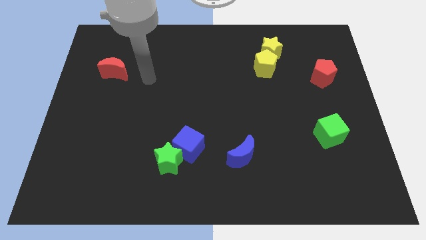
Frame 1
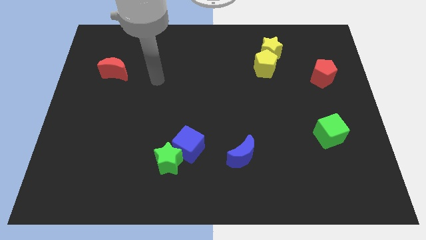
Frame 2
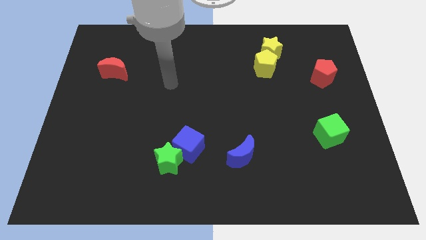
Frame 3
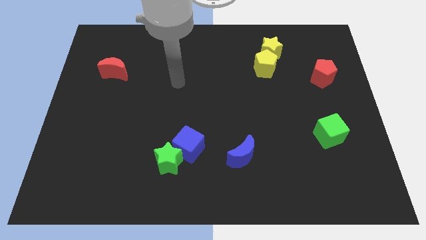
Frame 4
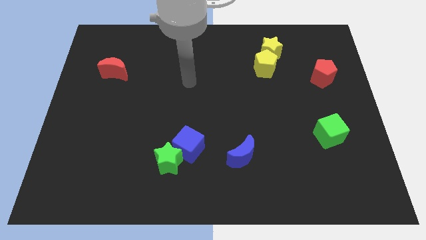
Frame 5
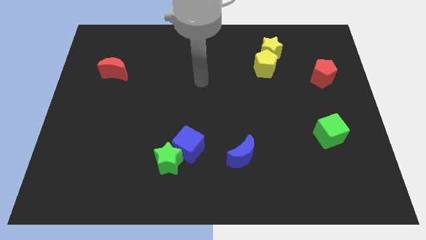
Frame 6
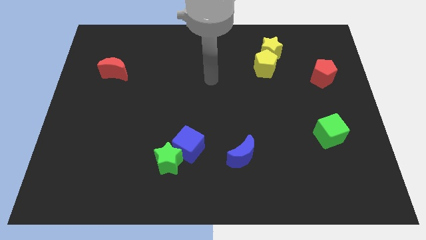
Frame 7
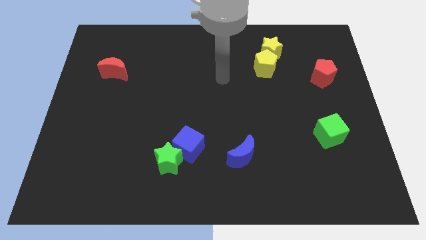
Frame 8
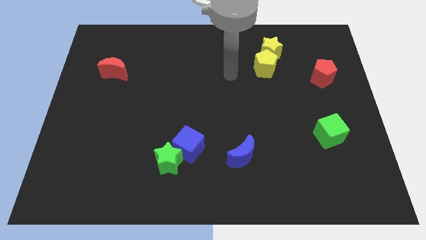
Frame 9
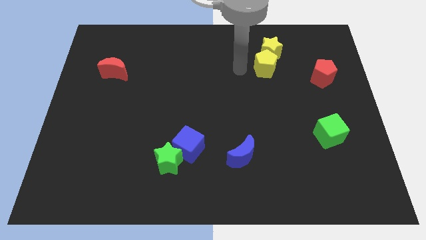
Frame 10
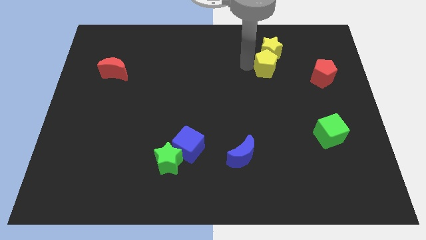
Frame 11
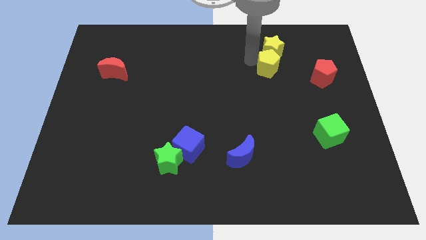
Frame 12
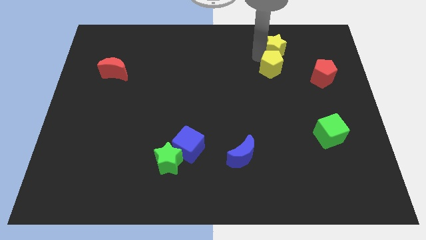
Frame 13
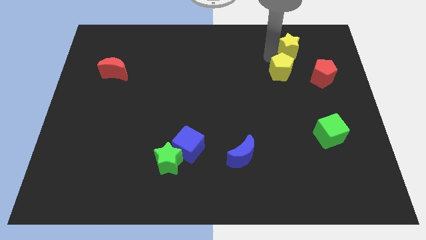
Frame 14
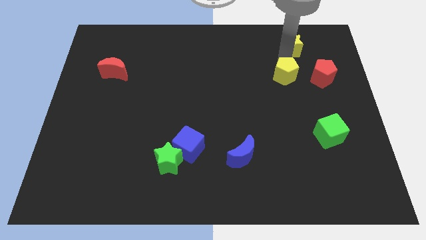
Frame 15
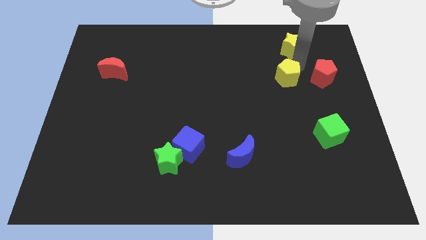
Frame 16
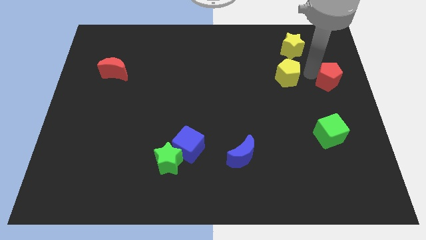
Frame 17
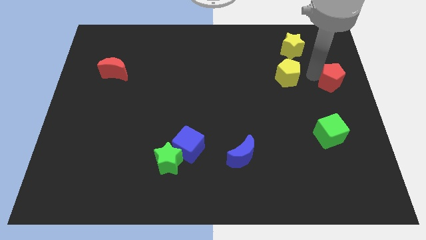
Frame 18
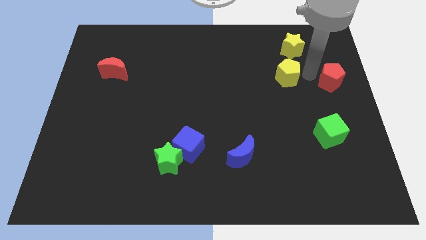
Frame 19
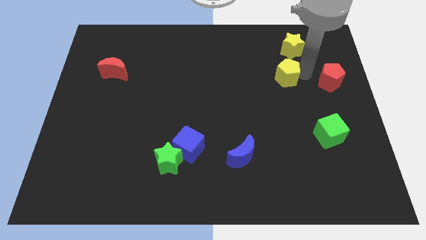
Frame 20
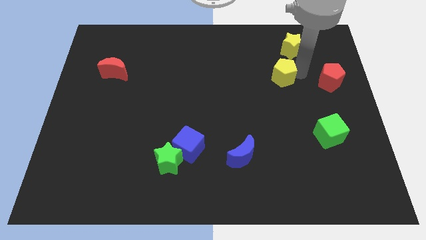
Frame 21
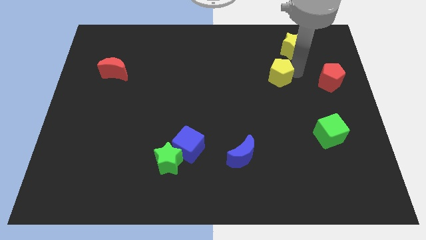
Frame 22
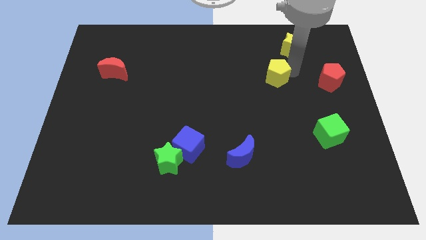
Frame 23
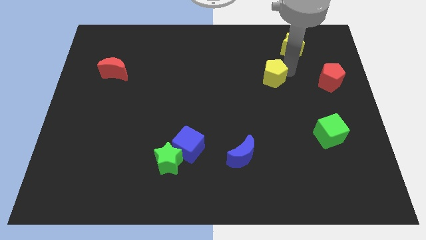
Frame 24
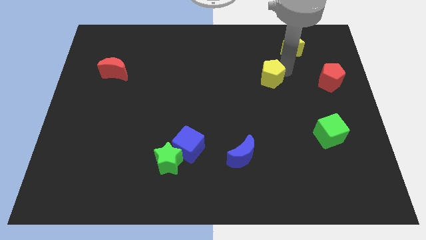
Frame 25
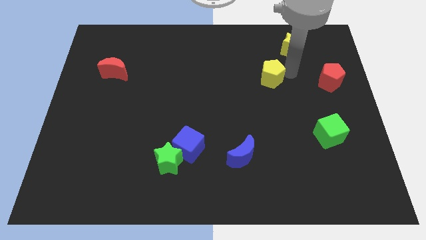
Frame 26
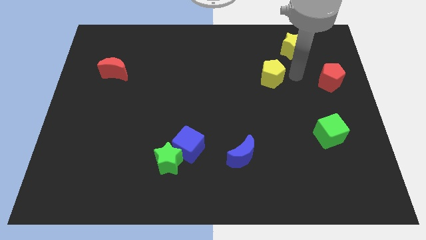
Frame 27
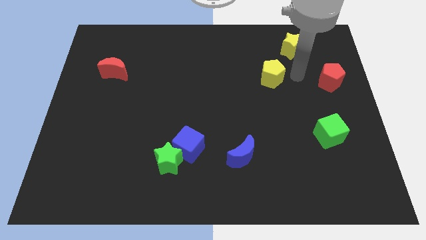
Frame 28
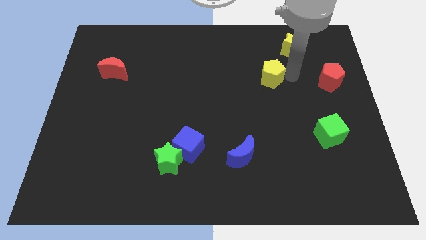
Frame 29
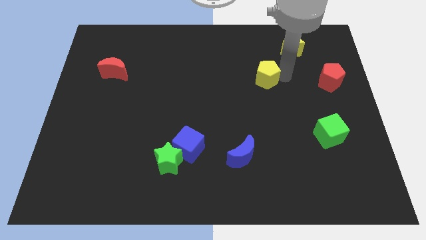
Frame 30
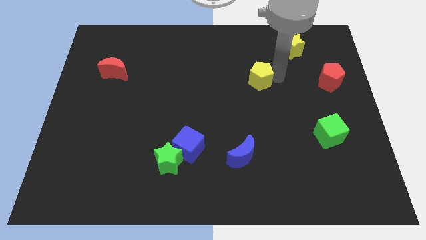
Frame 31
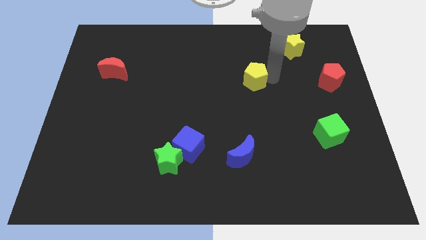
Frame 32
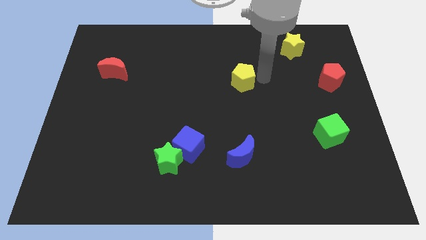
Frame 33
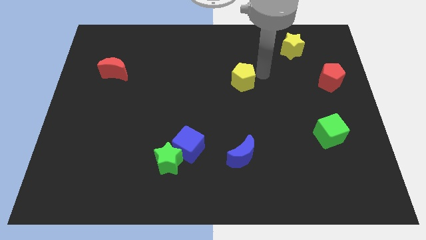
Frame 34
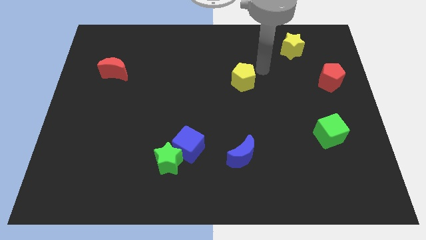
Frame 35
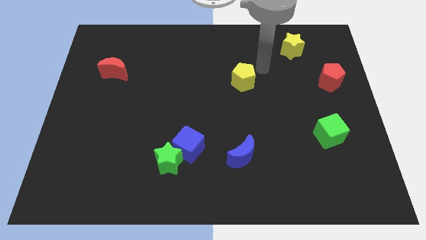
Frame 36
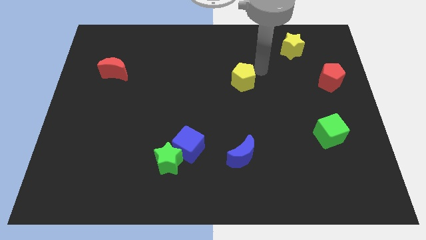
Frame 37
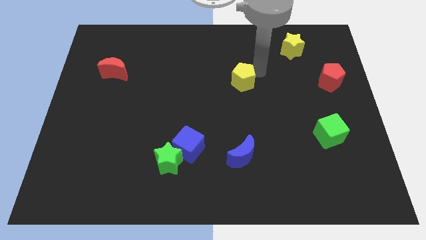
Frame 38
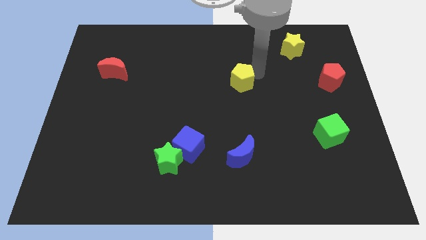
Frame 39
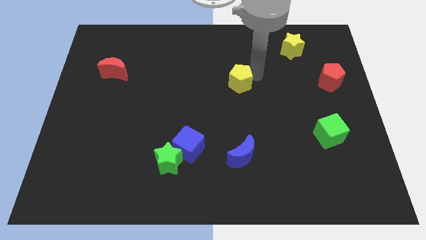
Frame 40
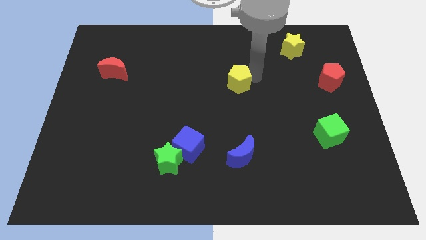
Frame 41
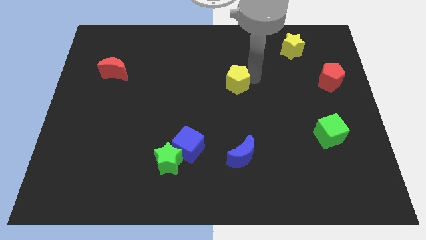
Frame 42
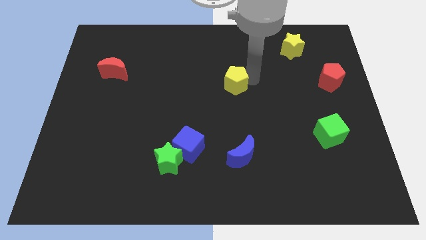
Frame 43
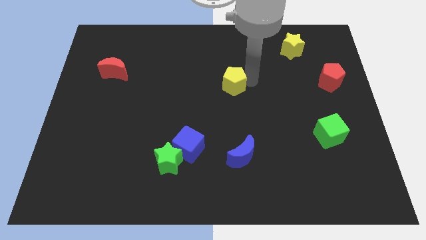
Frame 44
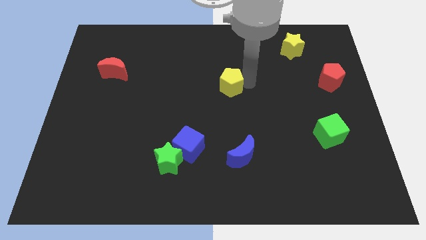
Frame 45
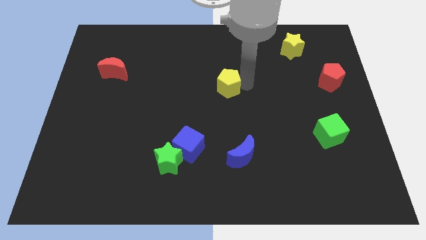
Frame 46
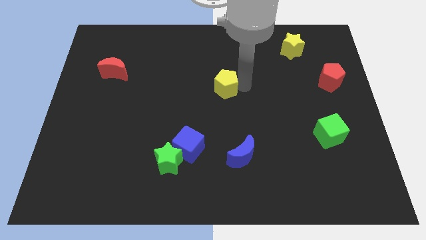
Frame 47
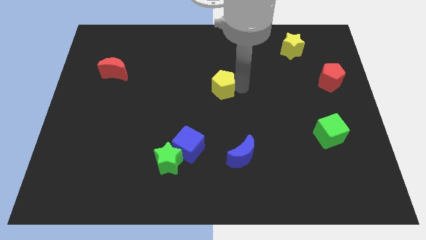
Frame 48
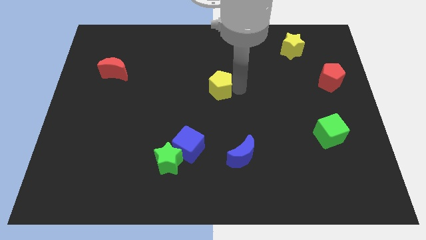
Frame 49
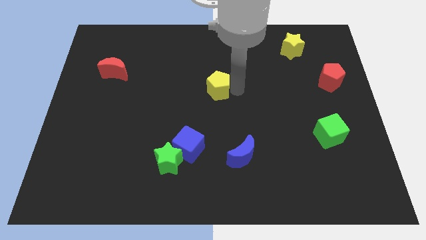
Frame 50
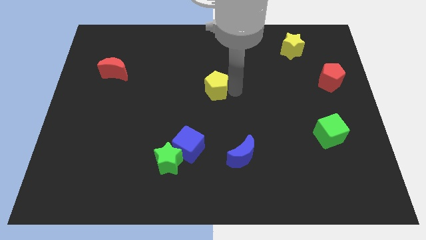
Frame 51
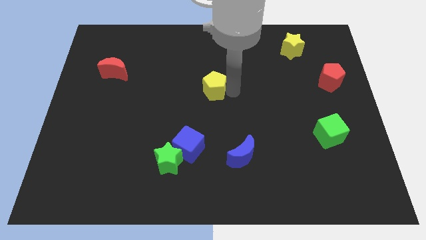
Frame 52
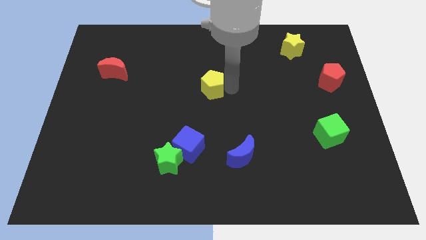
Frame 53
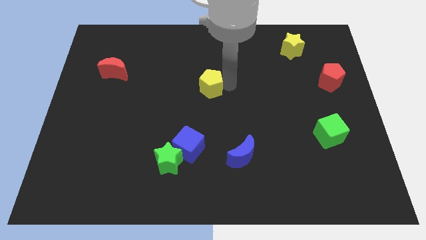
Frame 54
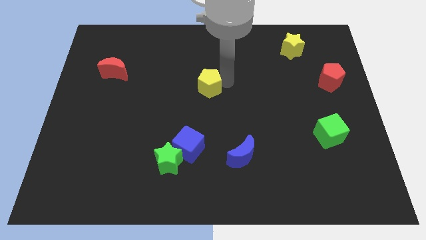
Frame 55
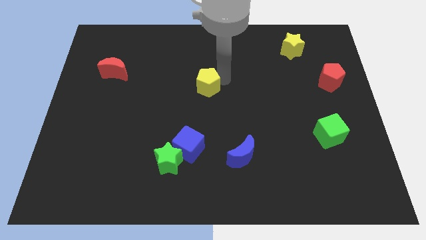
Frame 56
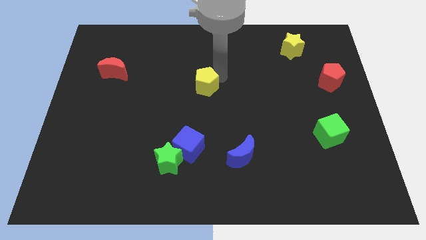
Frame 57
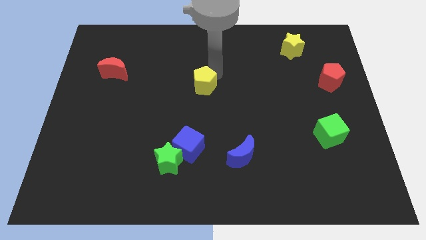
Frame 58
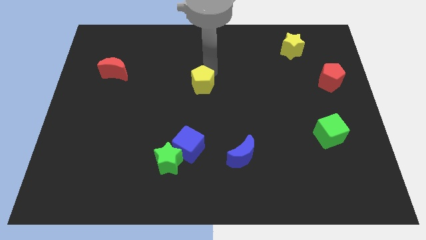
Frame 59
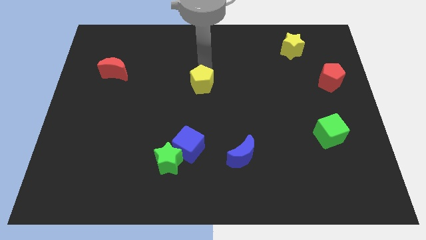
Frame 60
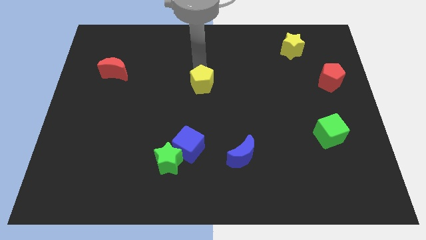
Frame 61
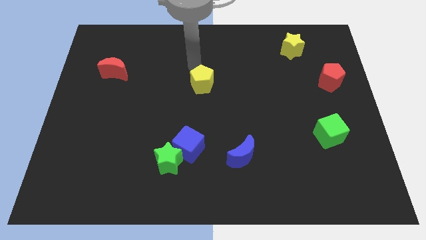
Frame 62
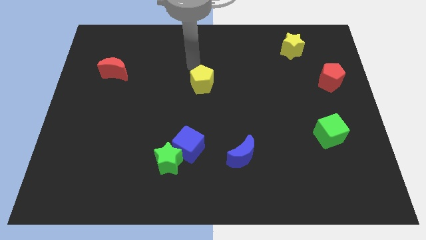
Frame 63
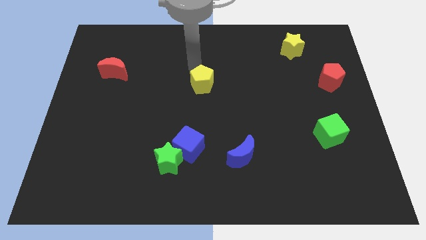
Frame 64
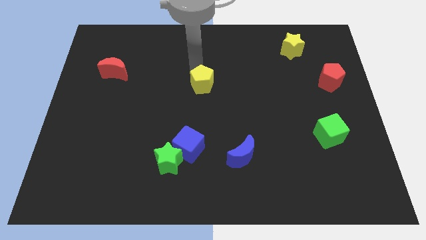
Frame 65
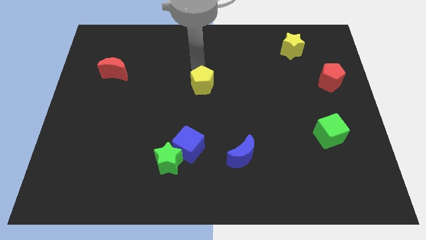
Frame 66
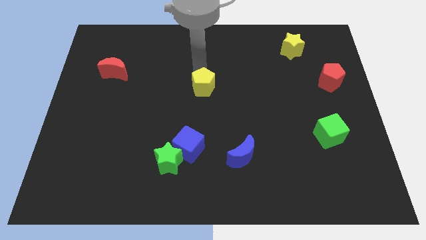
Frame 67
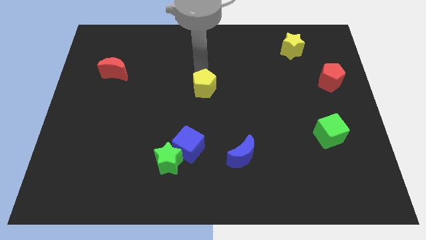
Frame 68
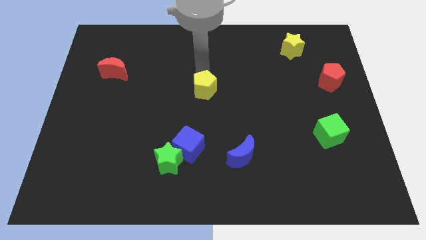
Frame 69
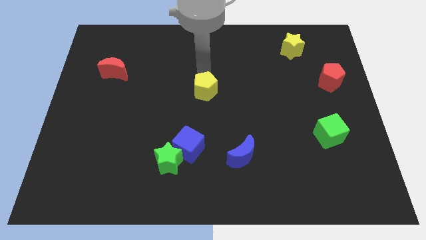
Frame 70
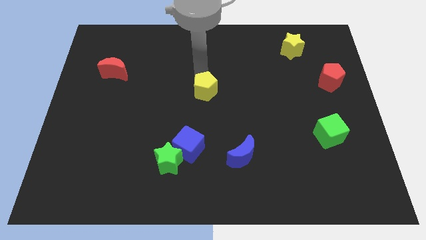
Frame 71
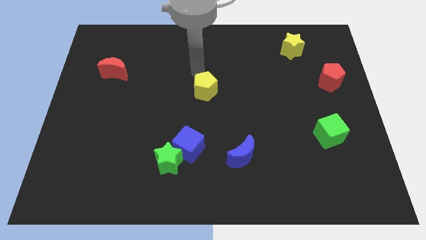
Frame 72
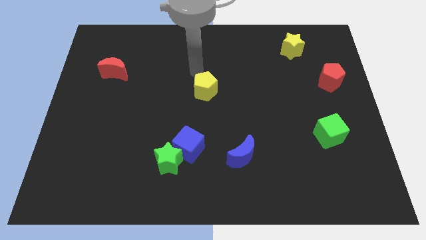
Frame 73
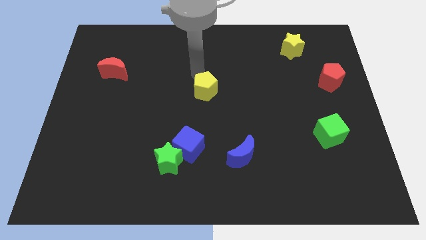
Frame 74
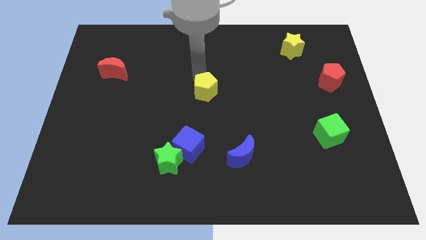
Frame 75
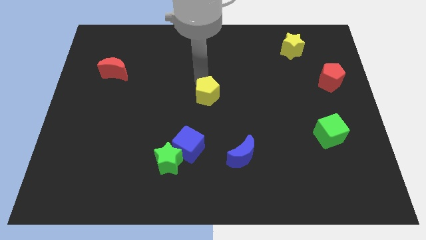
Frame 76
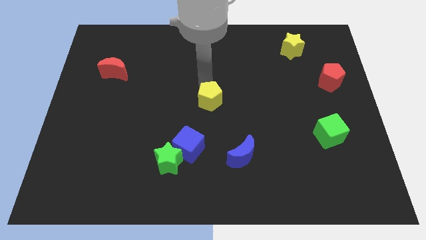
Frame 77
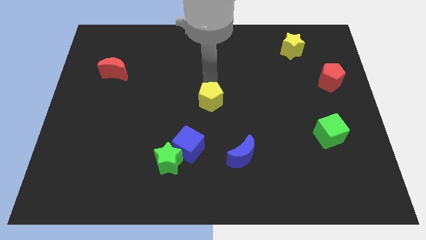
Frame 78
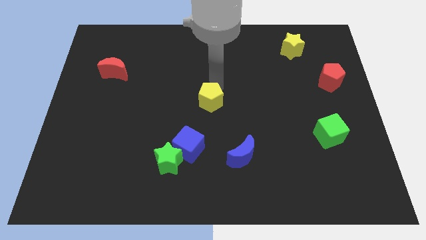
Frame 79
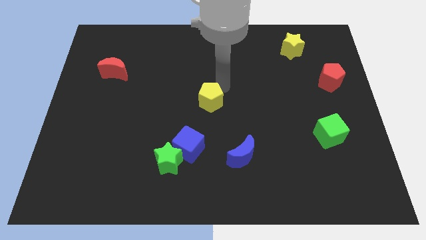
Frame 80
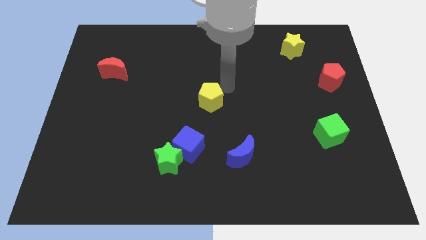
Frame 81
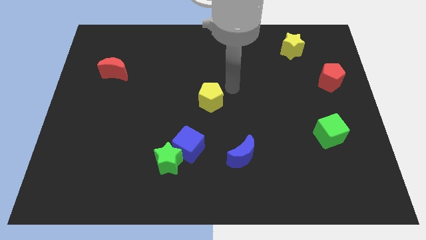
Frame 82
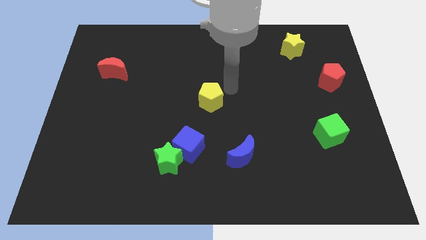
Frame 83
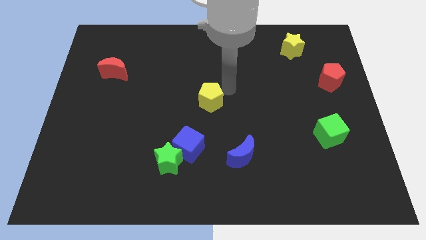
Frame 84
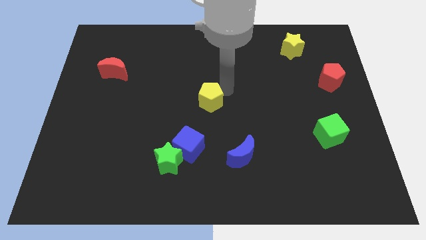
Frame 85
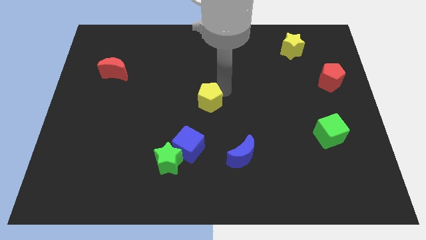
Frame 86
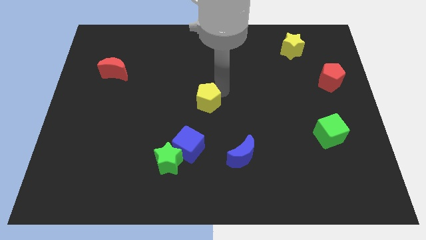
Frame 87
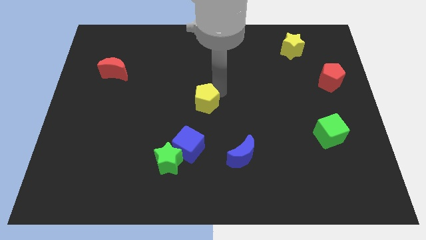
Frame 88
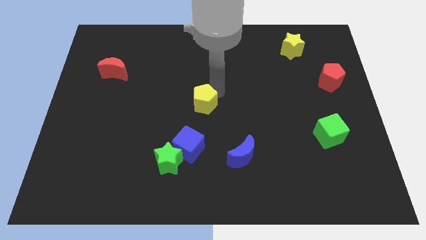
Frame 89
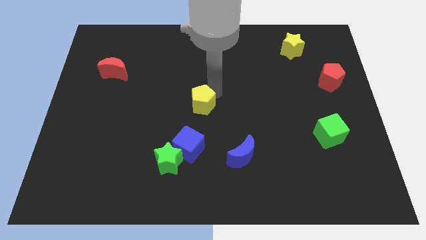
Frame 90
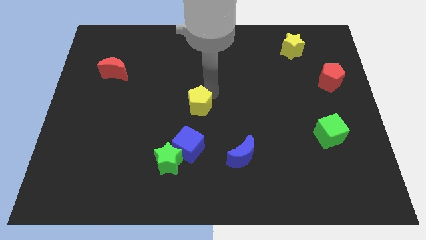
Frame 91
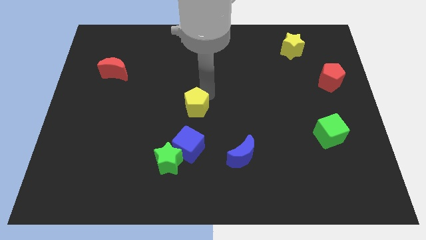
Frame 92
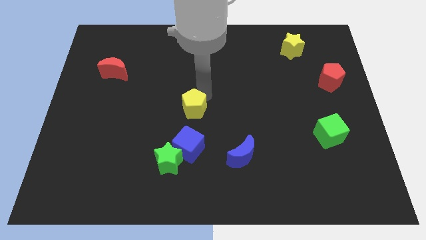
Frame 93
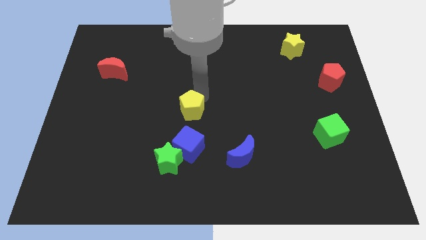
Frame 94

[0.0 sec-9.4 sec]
slide the yellow pentagon to the top side of the green star
